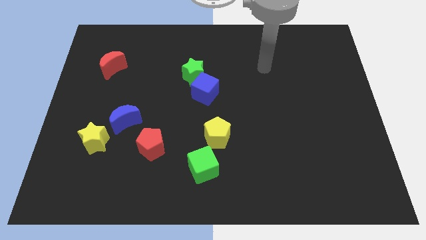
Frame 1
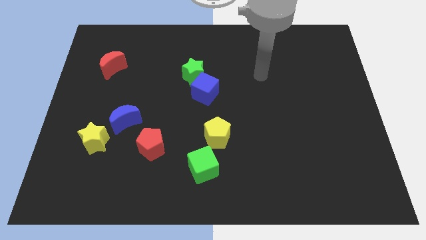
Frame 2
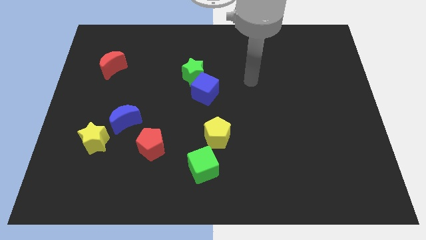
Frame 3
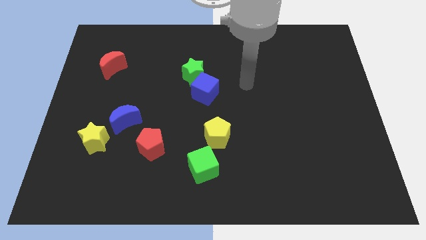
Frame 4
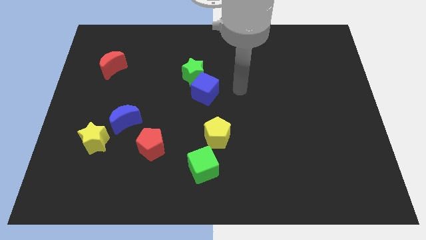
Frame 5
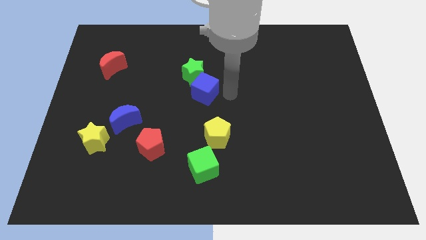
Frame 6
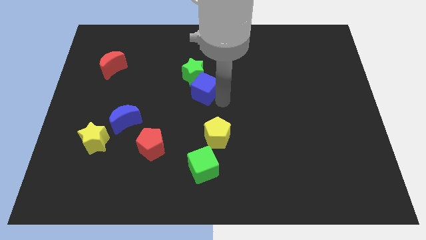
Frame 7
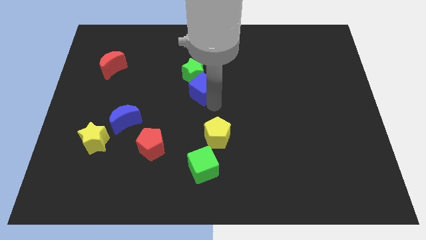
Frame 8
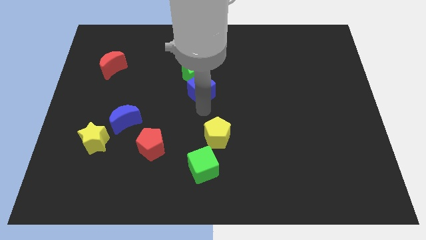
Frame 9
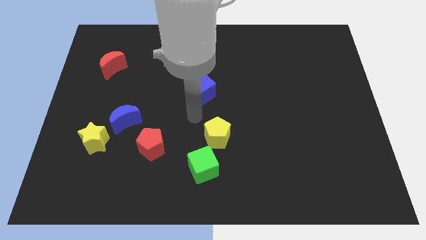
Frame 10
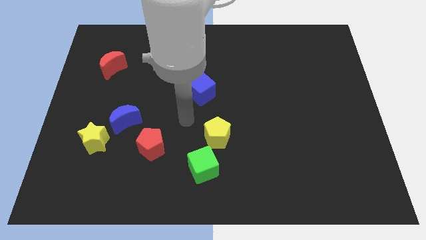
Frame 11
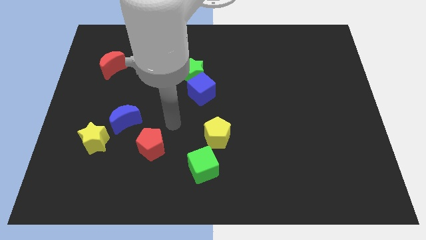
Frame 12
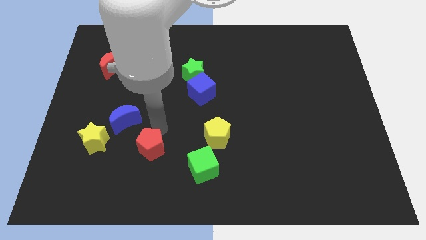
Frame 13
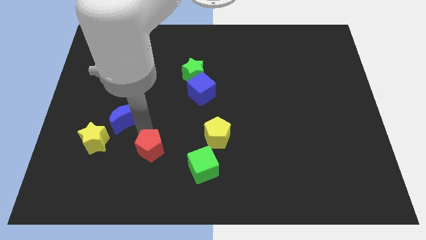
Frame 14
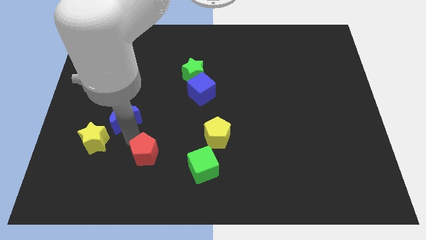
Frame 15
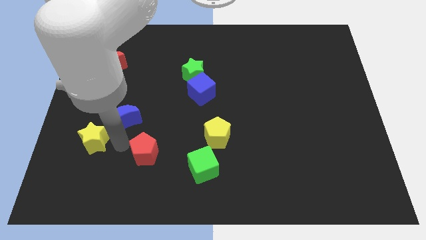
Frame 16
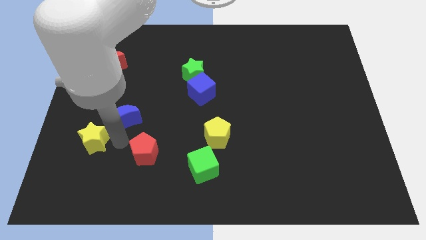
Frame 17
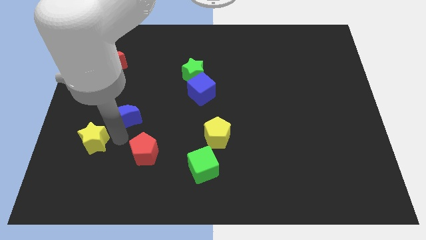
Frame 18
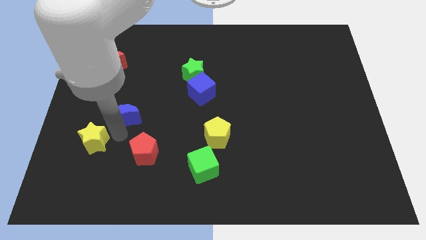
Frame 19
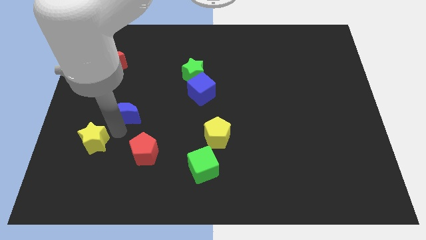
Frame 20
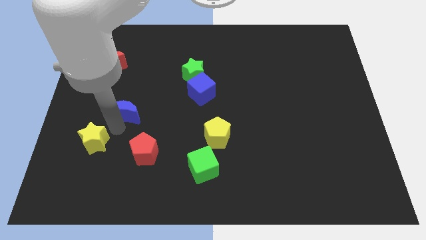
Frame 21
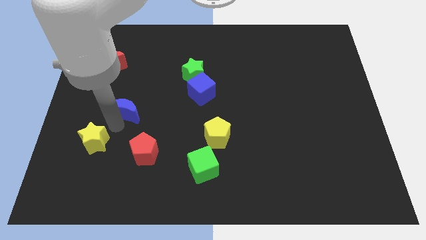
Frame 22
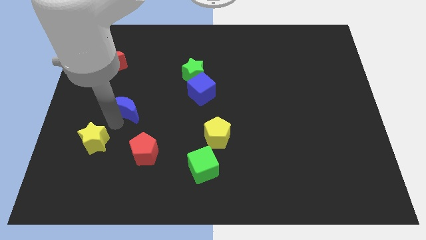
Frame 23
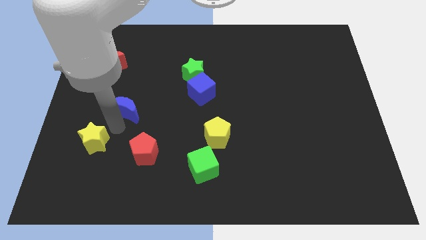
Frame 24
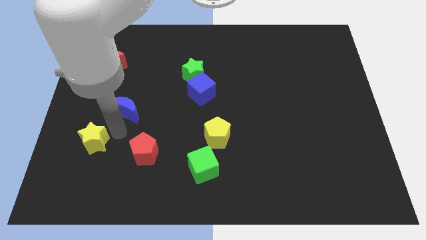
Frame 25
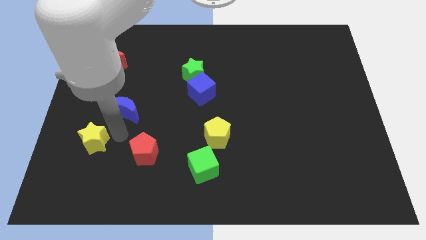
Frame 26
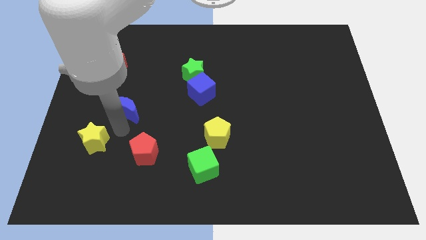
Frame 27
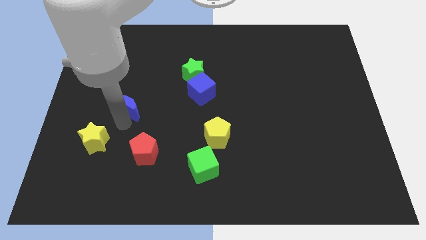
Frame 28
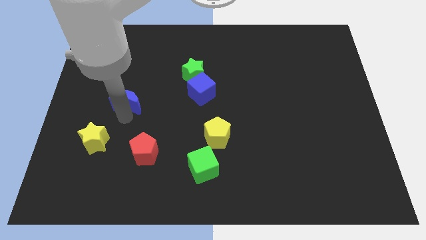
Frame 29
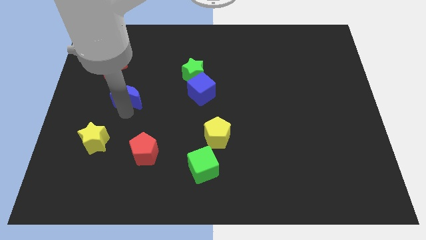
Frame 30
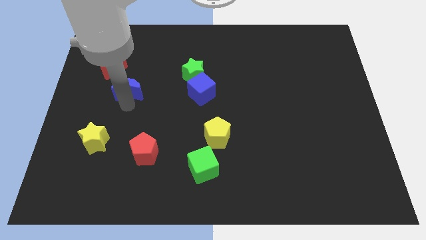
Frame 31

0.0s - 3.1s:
push the blue moon upwards slightly

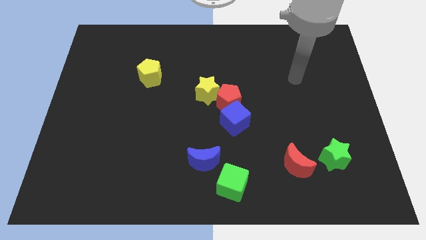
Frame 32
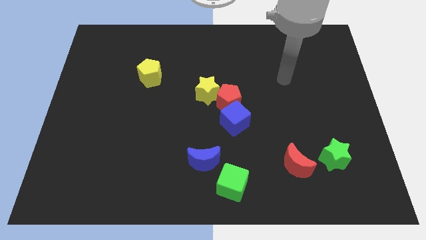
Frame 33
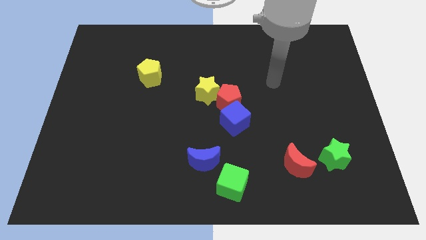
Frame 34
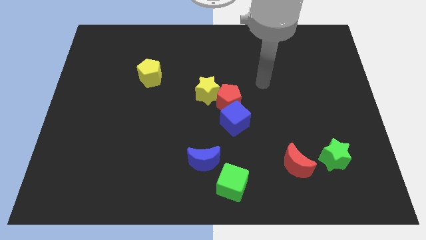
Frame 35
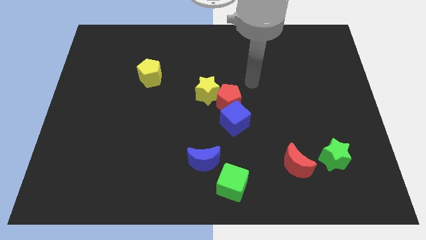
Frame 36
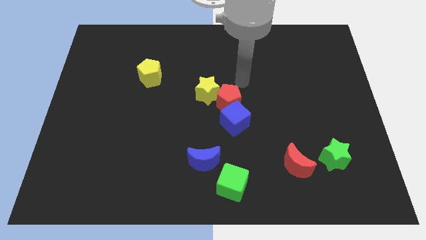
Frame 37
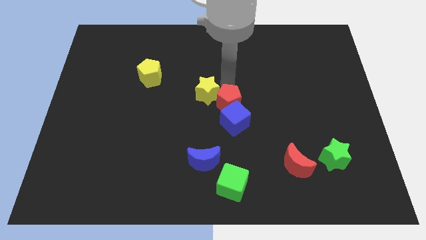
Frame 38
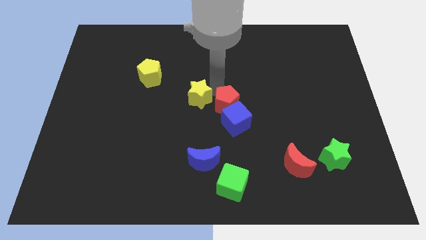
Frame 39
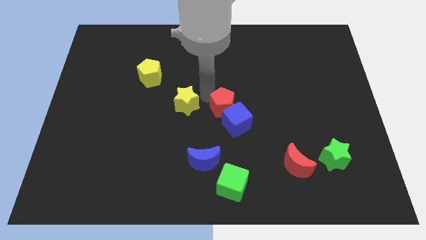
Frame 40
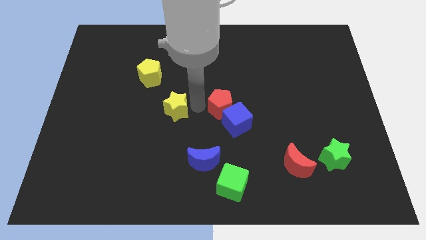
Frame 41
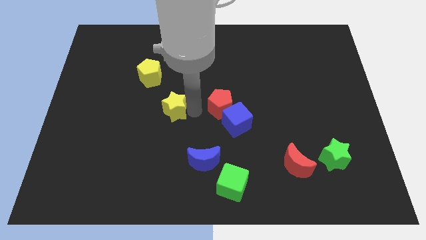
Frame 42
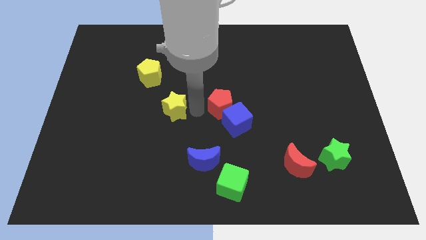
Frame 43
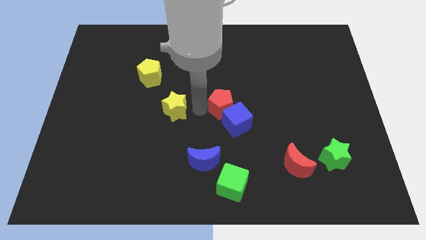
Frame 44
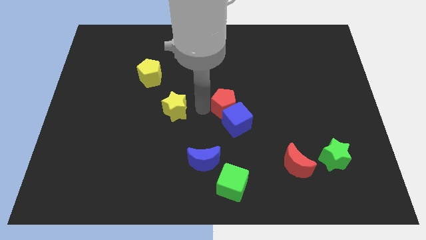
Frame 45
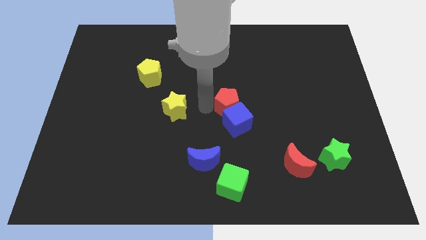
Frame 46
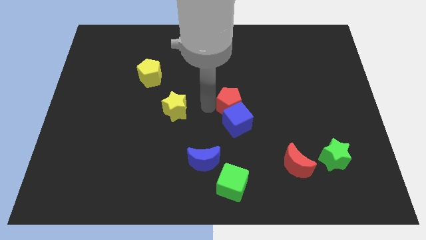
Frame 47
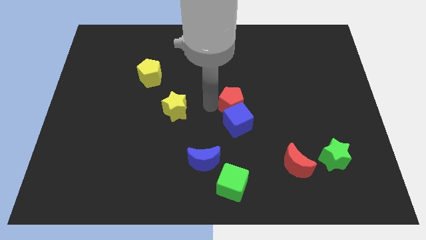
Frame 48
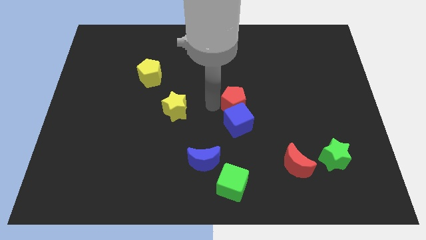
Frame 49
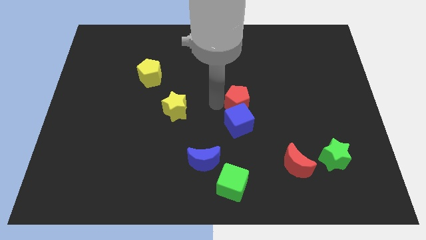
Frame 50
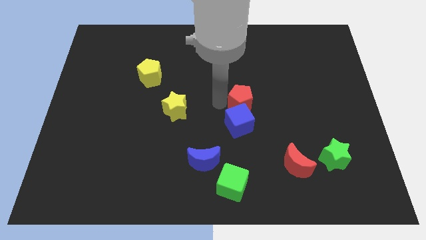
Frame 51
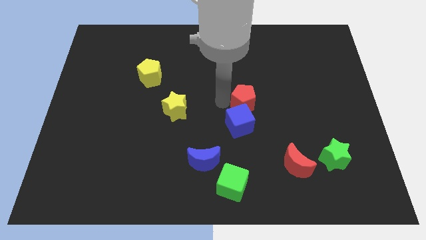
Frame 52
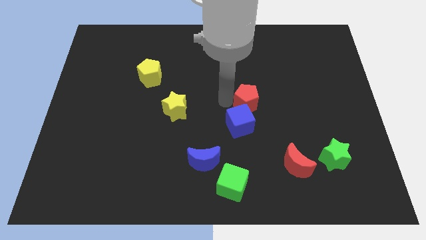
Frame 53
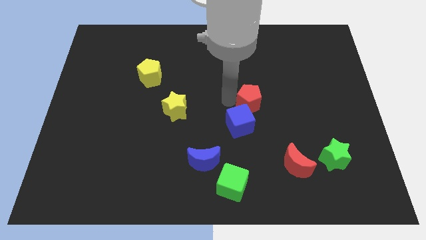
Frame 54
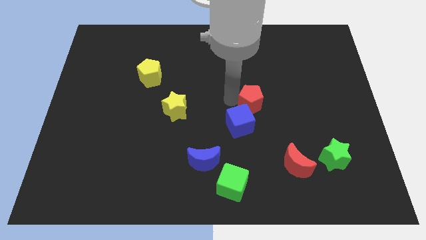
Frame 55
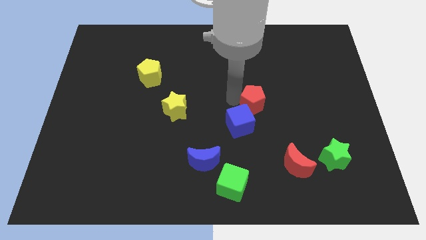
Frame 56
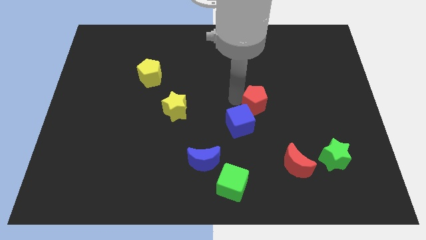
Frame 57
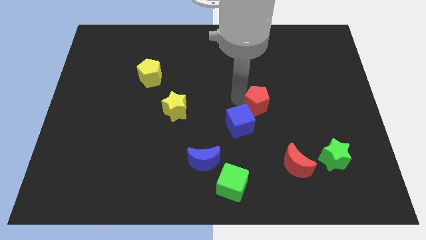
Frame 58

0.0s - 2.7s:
slide the red pentagon right a little bit

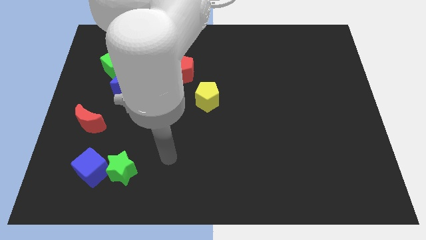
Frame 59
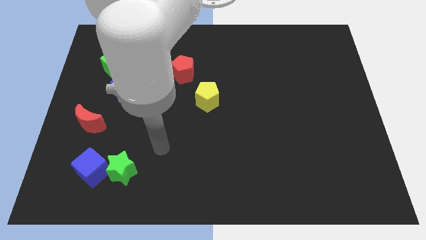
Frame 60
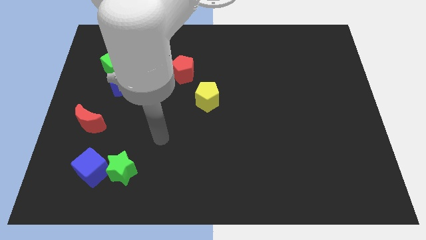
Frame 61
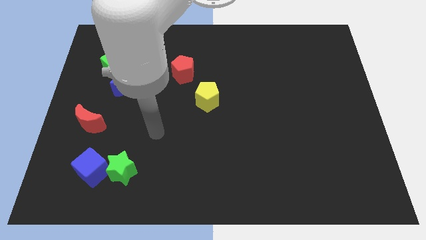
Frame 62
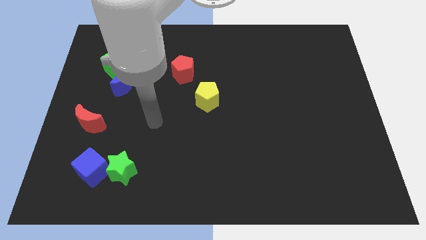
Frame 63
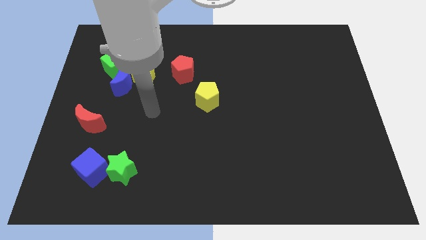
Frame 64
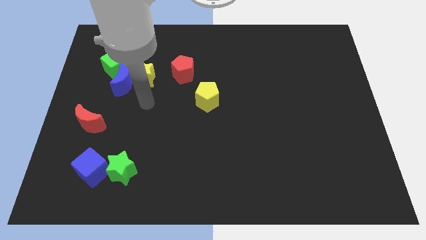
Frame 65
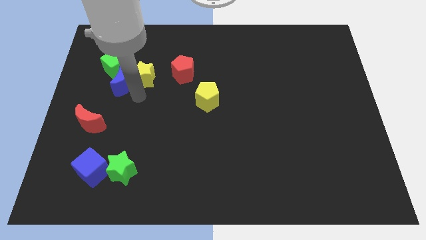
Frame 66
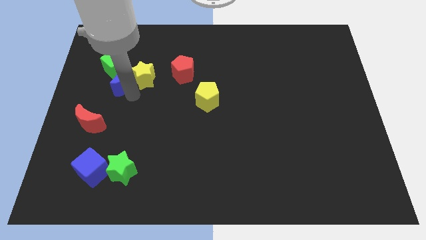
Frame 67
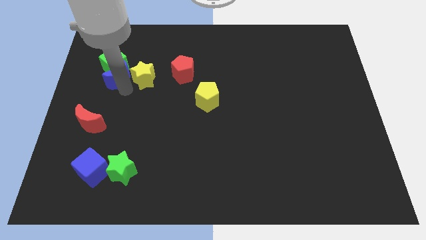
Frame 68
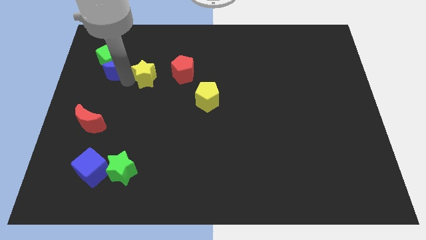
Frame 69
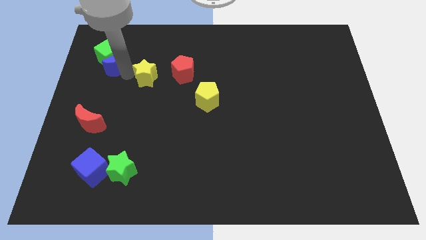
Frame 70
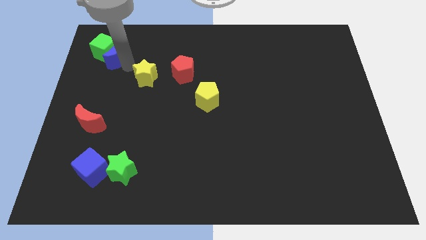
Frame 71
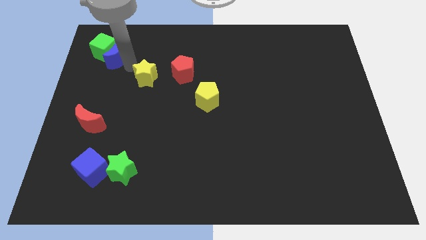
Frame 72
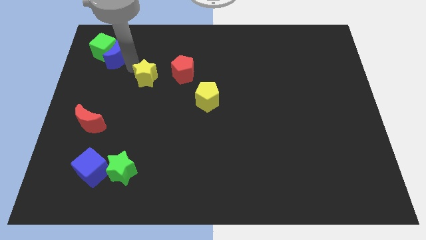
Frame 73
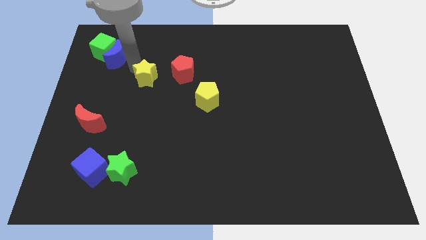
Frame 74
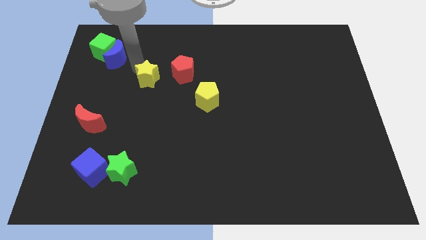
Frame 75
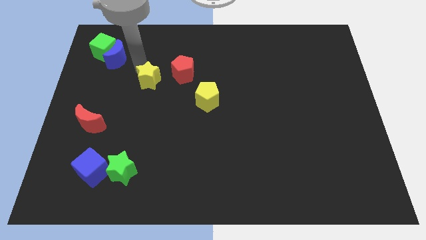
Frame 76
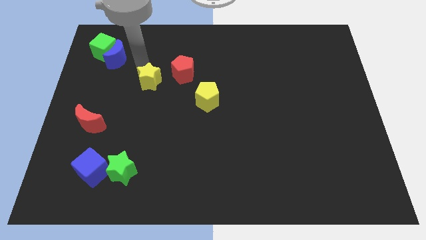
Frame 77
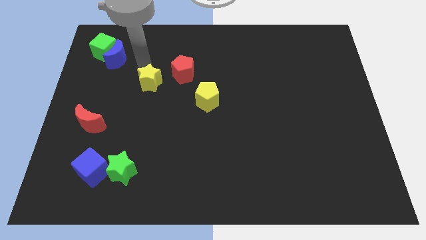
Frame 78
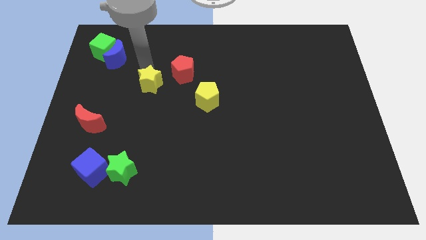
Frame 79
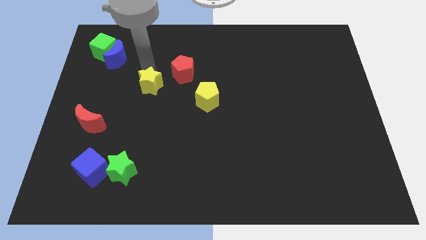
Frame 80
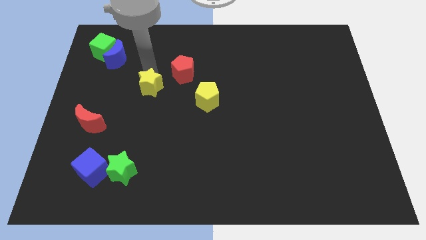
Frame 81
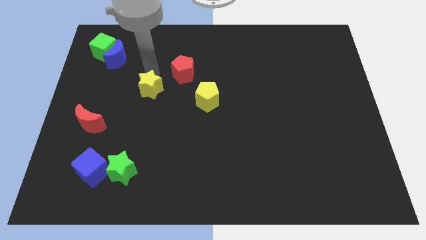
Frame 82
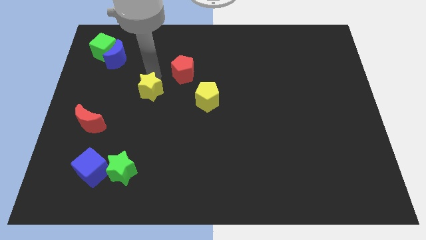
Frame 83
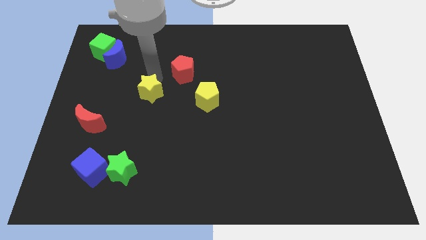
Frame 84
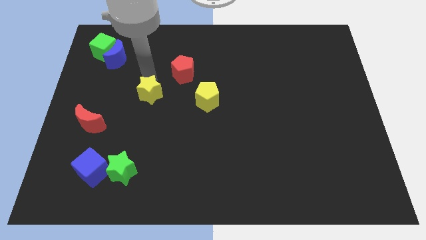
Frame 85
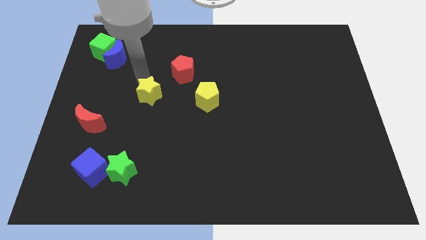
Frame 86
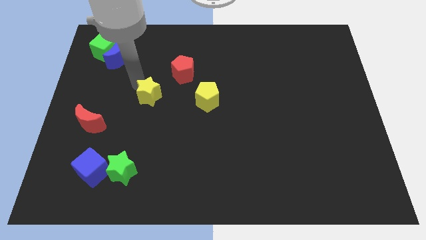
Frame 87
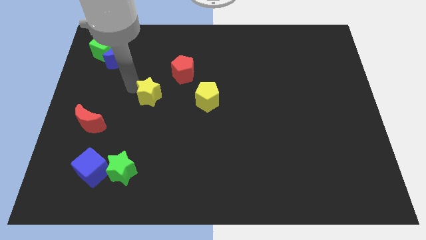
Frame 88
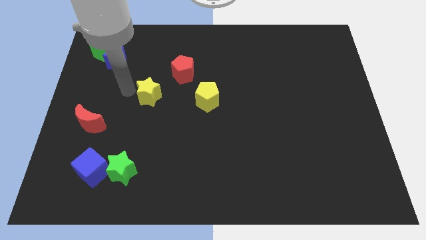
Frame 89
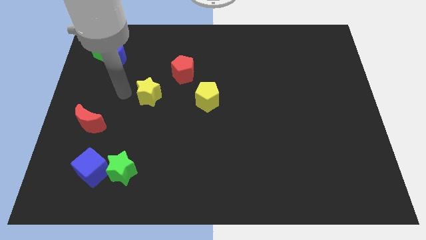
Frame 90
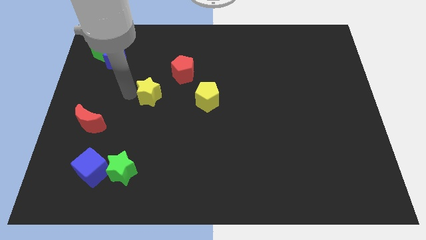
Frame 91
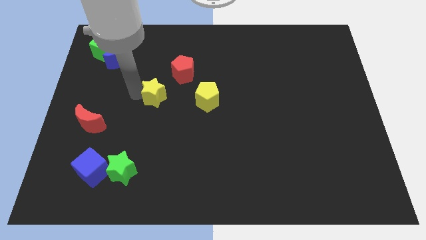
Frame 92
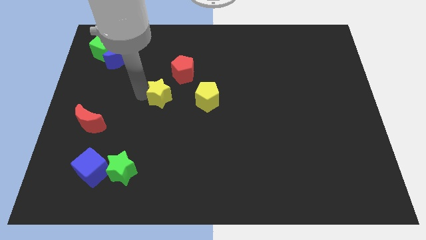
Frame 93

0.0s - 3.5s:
slightly slide the yellow star diagonally downwards and to the right
